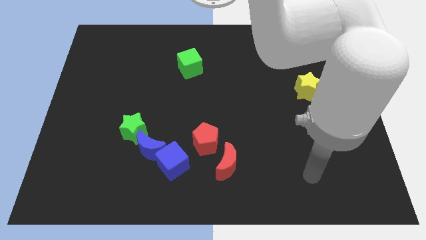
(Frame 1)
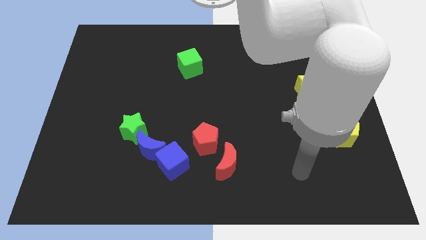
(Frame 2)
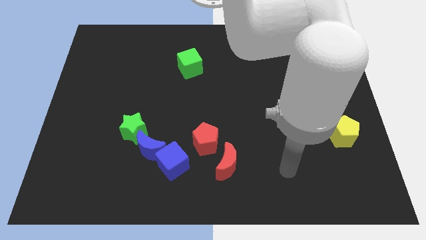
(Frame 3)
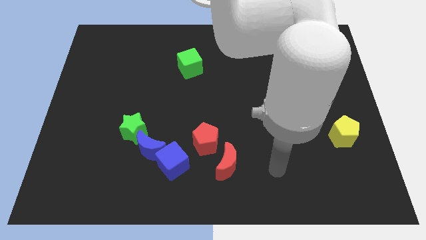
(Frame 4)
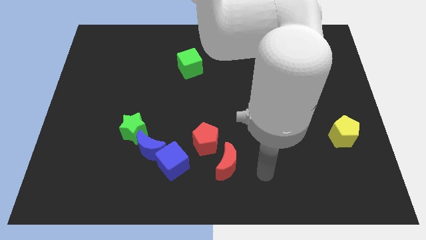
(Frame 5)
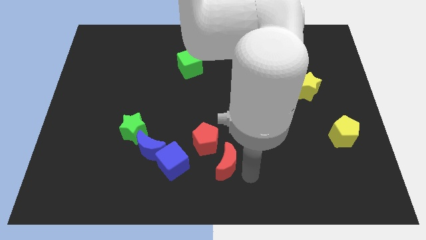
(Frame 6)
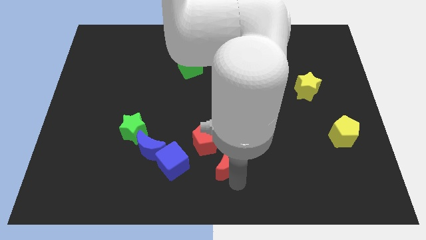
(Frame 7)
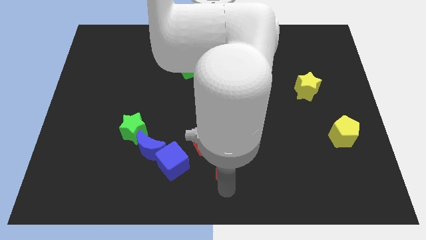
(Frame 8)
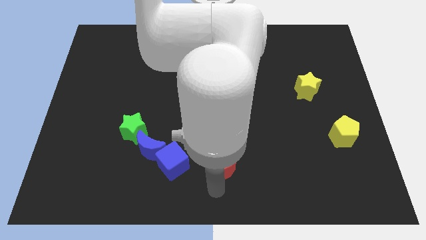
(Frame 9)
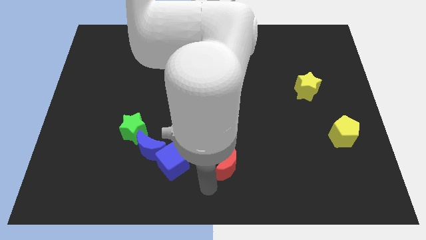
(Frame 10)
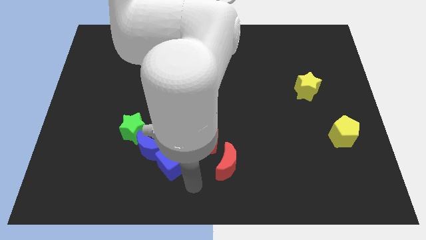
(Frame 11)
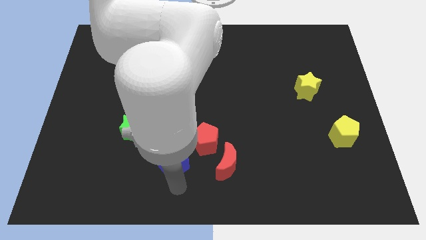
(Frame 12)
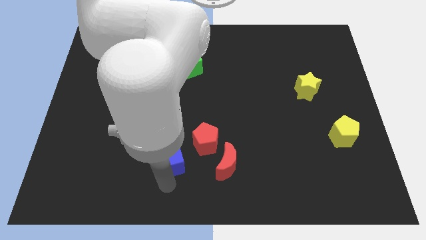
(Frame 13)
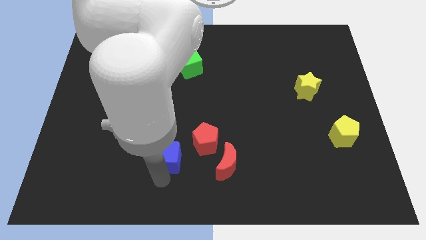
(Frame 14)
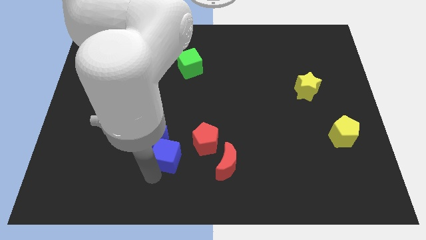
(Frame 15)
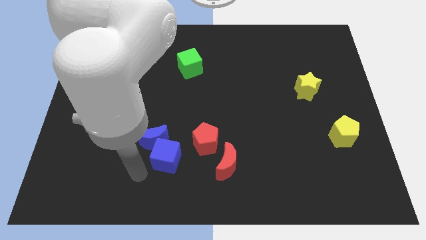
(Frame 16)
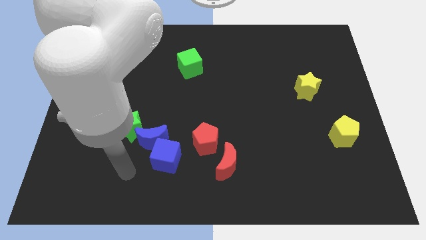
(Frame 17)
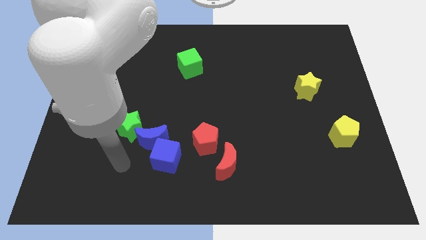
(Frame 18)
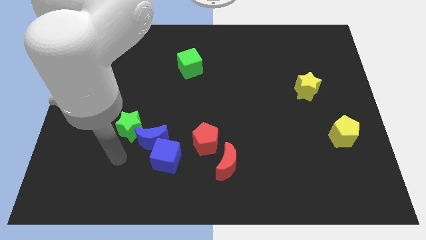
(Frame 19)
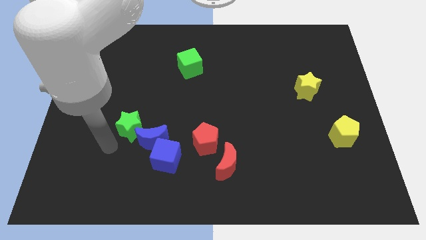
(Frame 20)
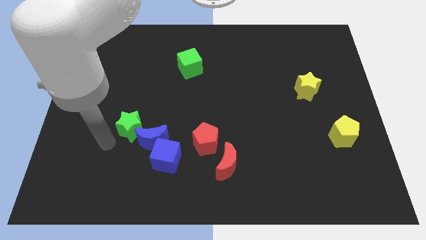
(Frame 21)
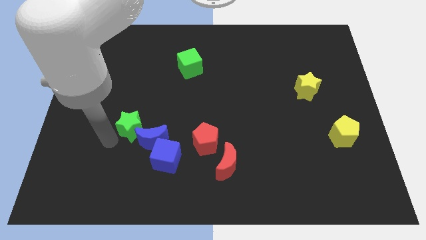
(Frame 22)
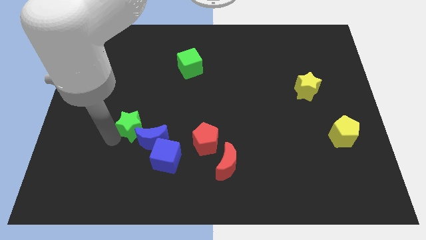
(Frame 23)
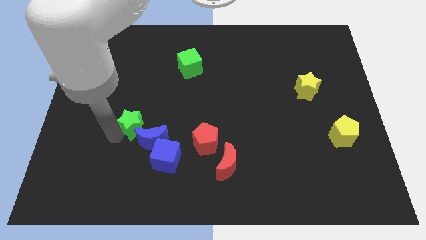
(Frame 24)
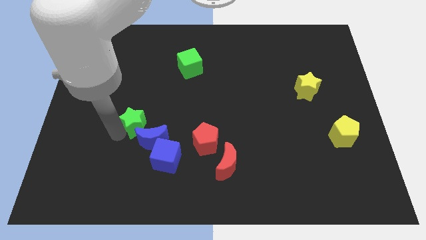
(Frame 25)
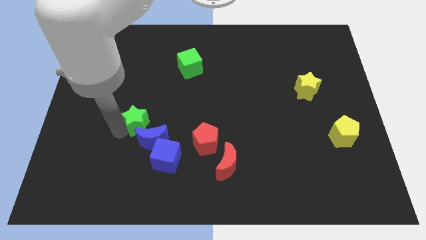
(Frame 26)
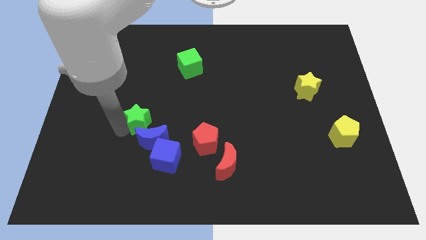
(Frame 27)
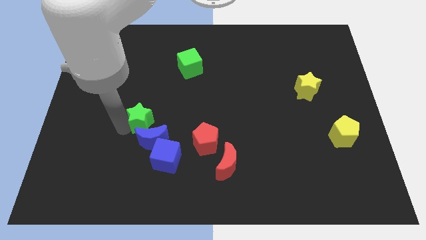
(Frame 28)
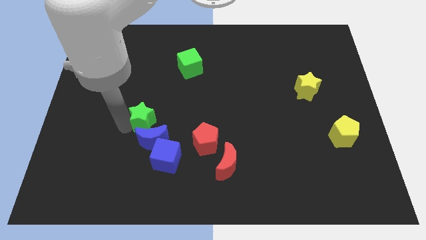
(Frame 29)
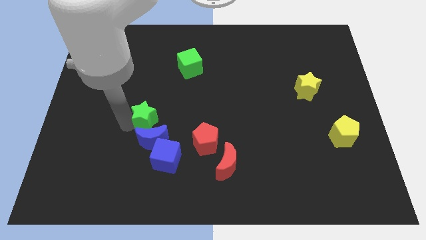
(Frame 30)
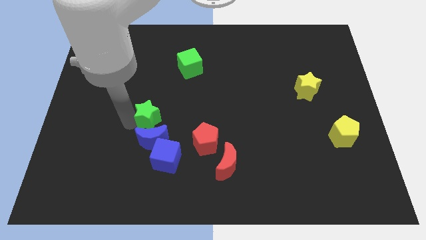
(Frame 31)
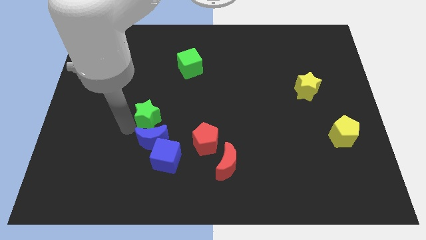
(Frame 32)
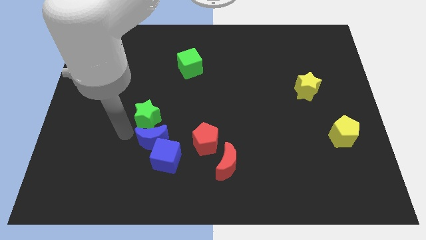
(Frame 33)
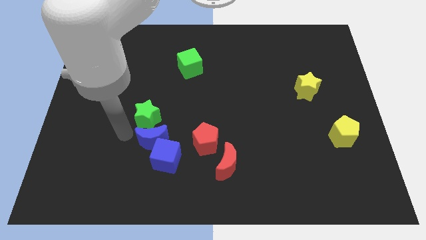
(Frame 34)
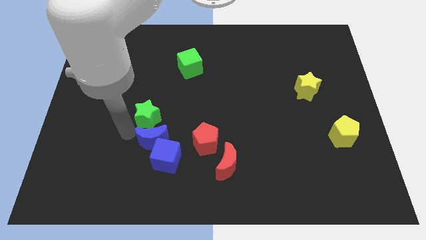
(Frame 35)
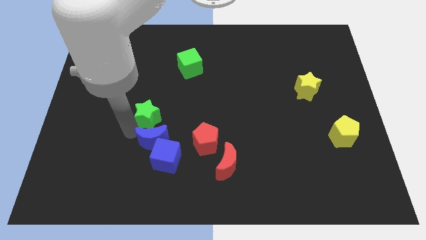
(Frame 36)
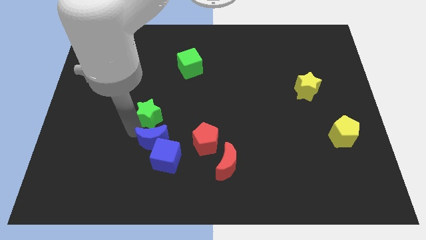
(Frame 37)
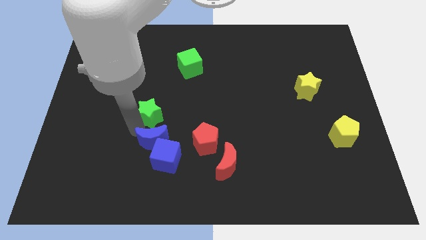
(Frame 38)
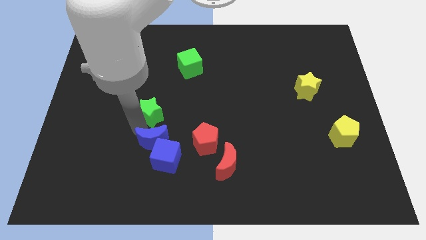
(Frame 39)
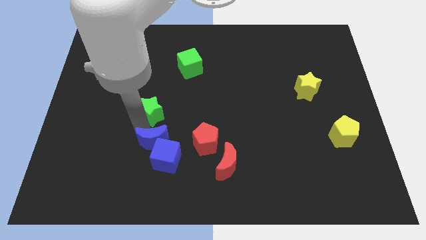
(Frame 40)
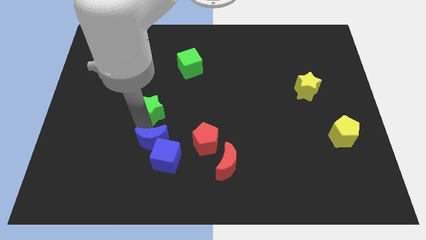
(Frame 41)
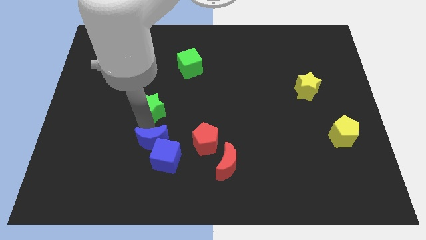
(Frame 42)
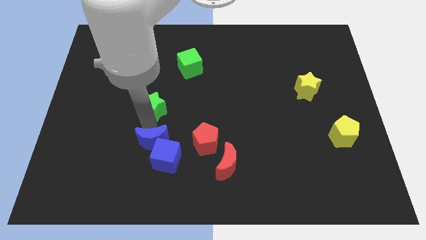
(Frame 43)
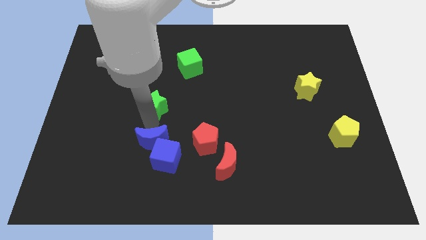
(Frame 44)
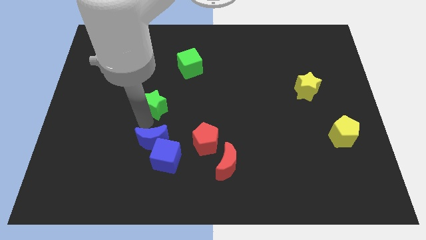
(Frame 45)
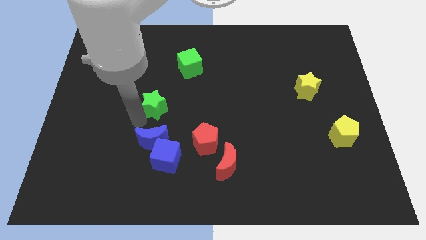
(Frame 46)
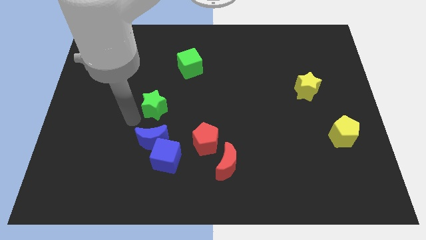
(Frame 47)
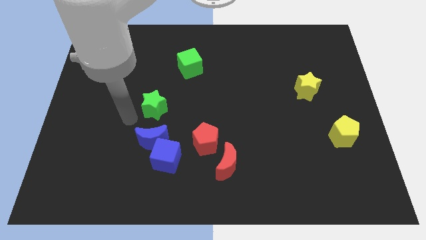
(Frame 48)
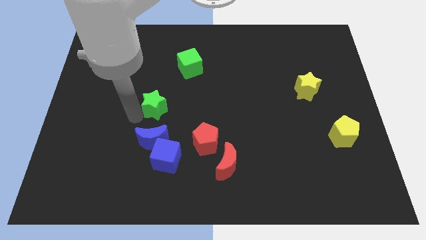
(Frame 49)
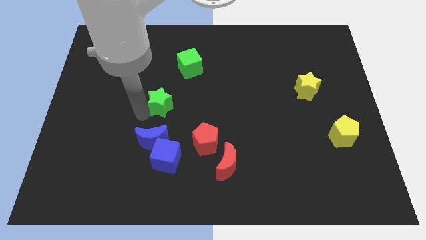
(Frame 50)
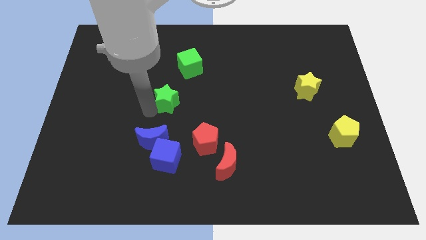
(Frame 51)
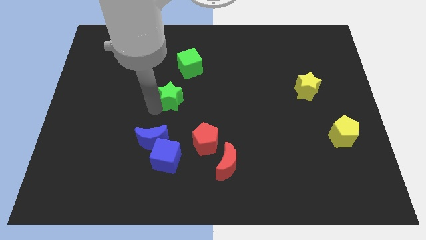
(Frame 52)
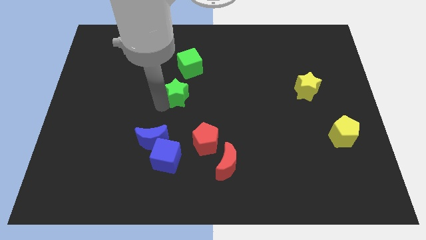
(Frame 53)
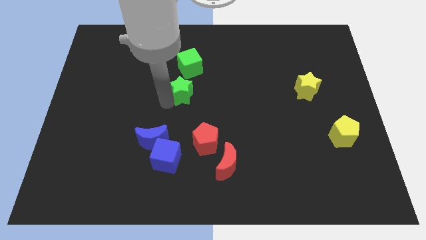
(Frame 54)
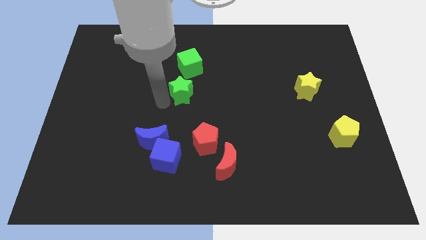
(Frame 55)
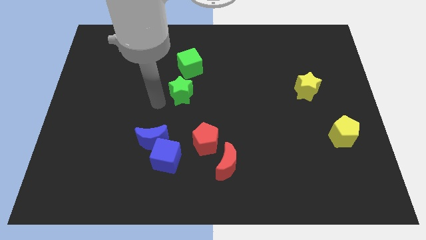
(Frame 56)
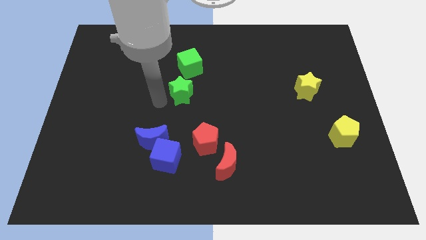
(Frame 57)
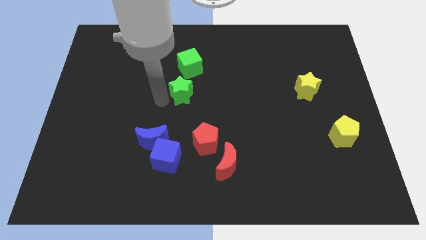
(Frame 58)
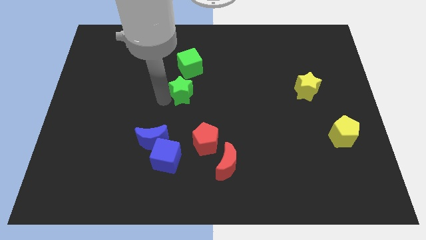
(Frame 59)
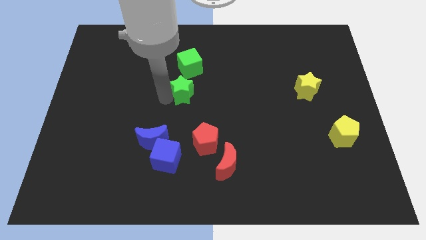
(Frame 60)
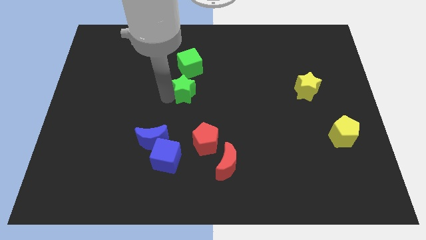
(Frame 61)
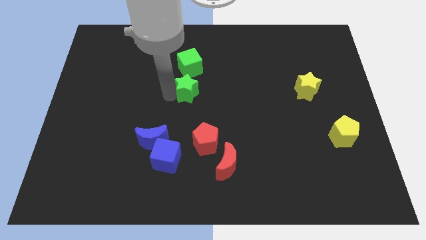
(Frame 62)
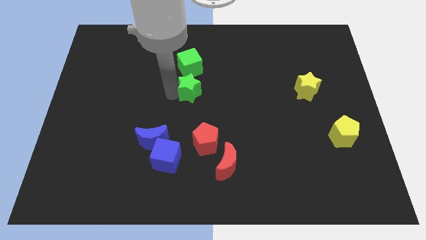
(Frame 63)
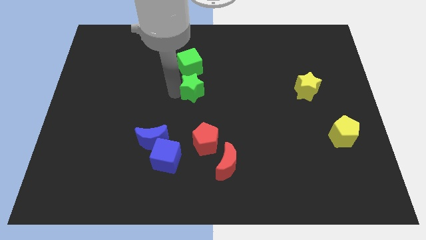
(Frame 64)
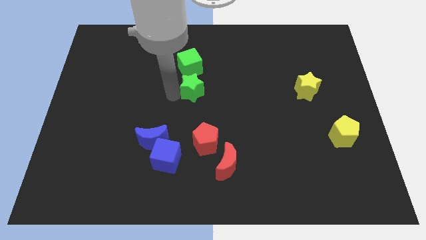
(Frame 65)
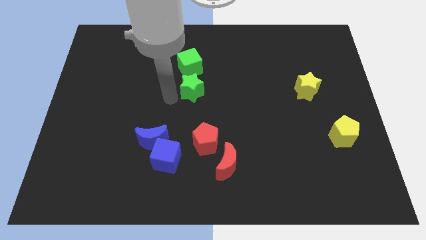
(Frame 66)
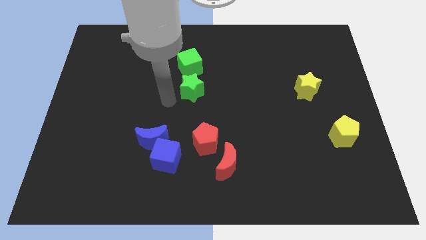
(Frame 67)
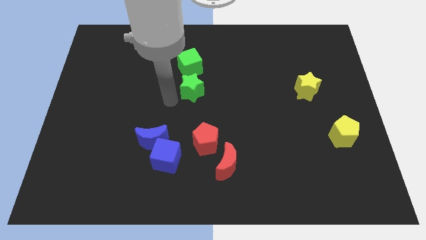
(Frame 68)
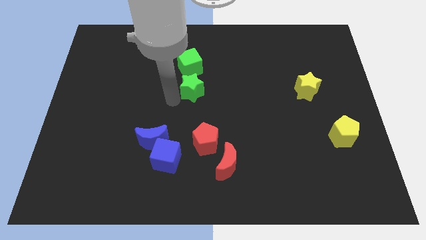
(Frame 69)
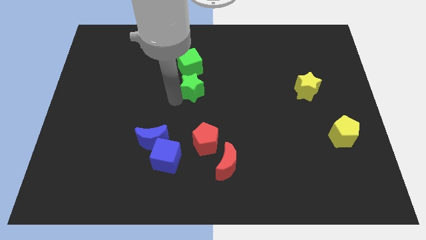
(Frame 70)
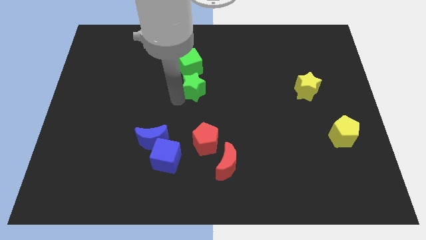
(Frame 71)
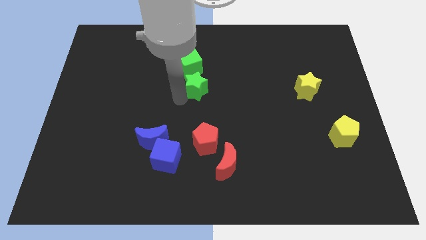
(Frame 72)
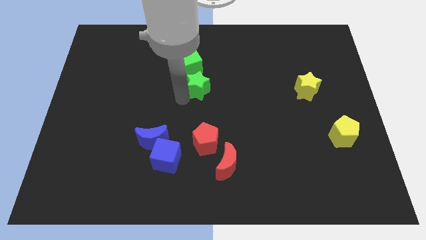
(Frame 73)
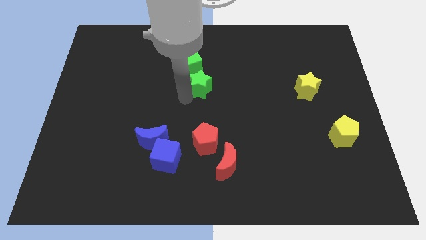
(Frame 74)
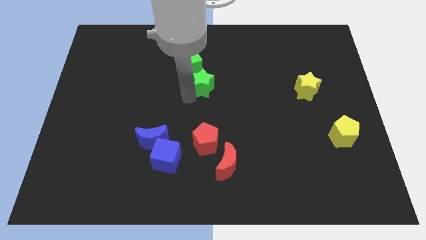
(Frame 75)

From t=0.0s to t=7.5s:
move the green star up and right diagonally

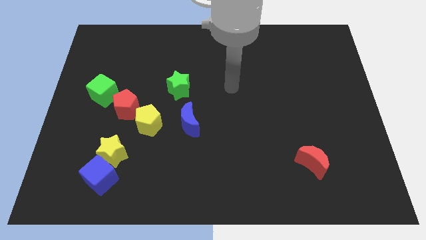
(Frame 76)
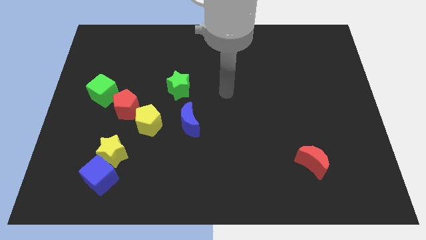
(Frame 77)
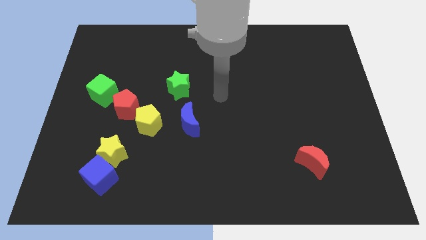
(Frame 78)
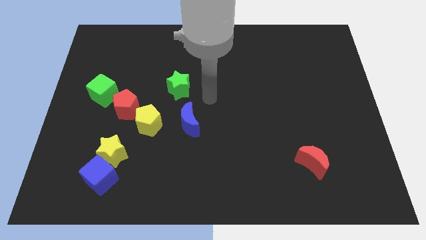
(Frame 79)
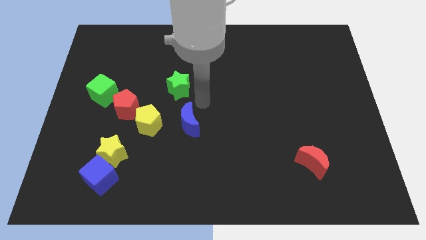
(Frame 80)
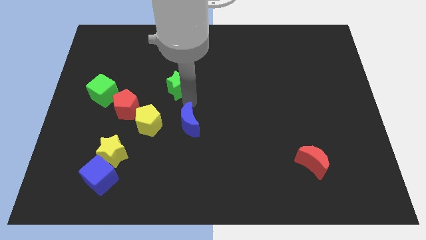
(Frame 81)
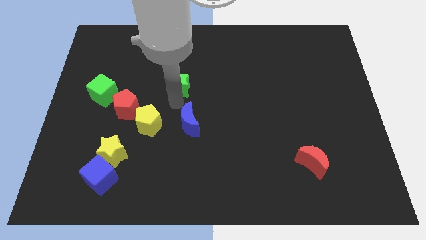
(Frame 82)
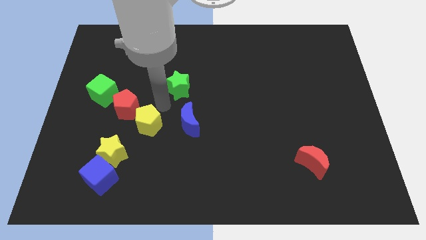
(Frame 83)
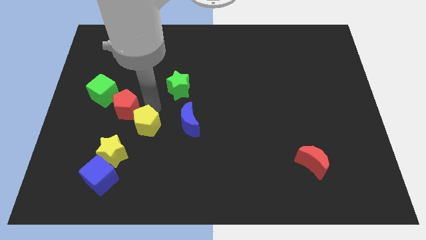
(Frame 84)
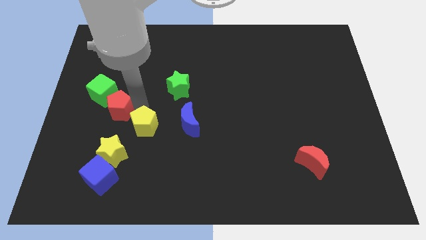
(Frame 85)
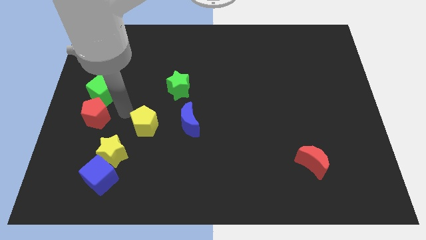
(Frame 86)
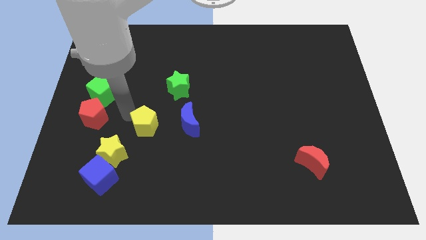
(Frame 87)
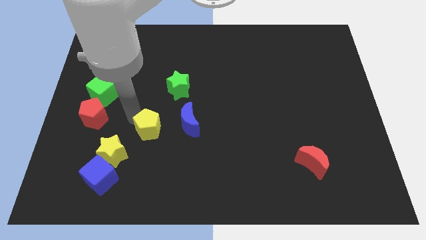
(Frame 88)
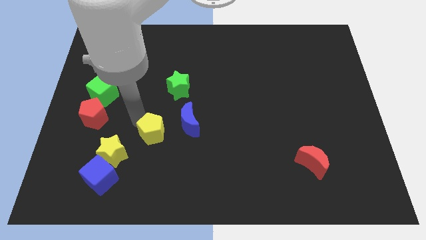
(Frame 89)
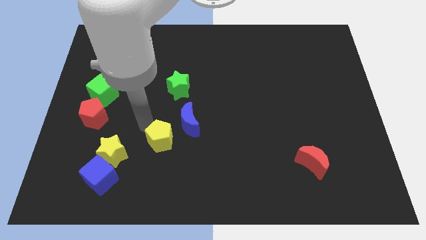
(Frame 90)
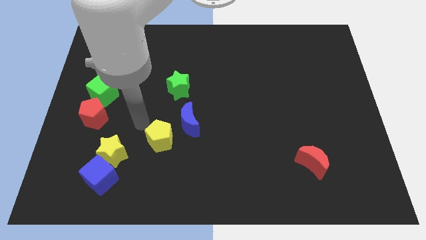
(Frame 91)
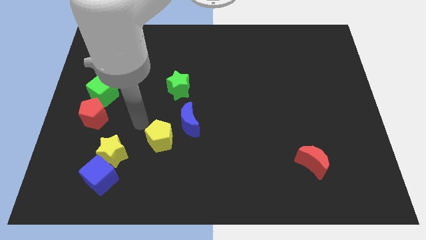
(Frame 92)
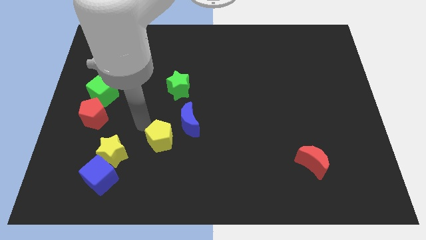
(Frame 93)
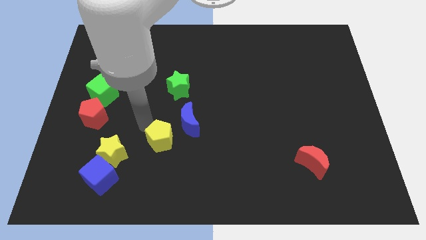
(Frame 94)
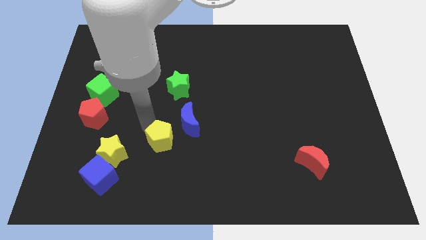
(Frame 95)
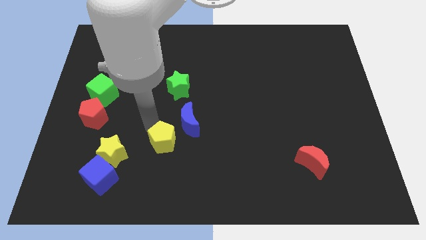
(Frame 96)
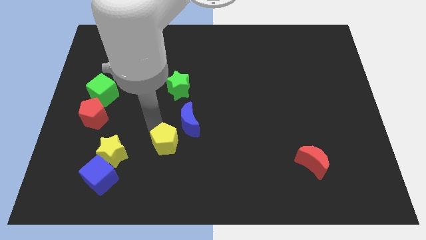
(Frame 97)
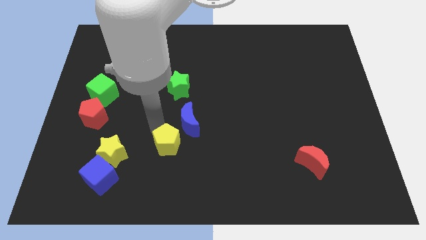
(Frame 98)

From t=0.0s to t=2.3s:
slightly slide the yellow pentagon down and then right
